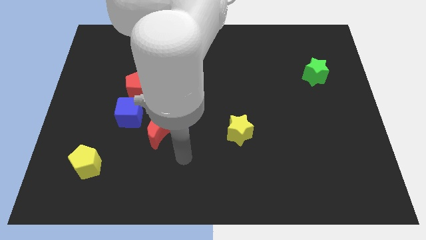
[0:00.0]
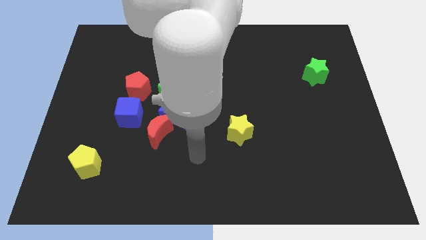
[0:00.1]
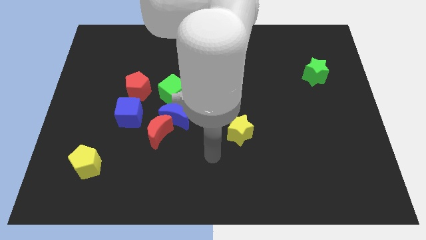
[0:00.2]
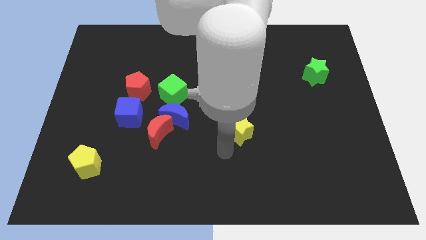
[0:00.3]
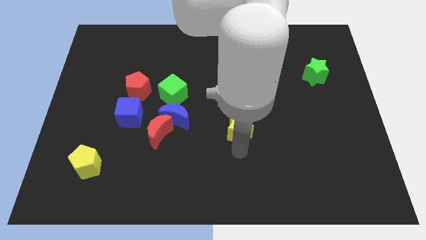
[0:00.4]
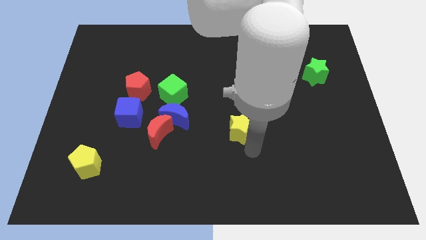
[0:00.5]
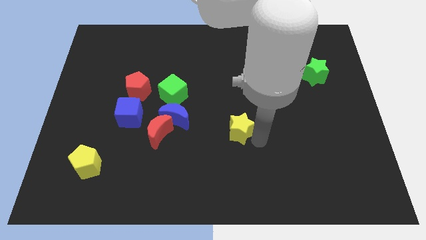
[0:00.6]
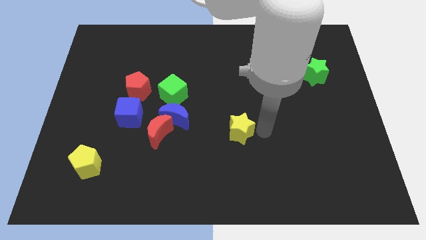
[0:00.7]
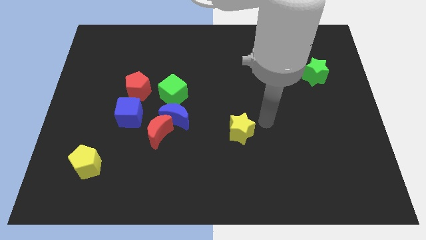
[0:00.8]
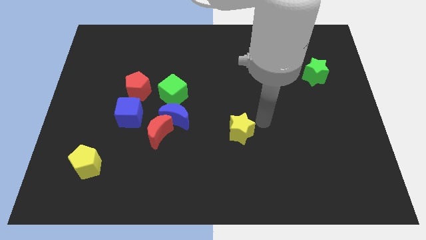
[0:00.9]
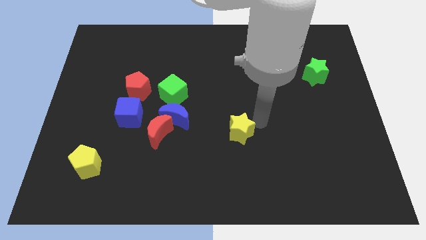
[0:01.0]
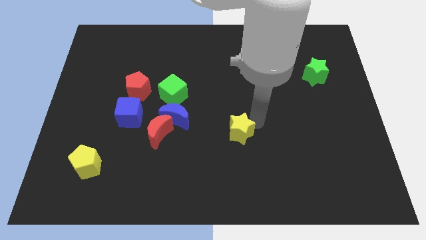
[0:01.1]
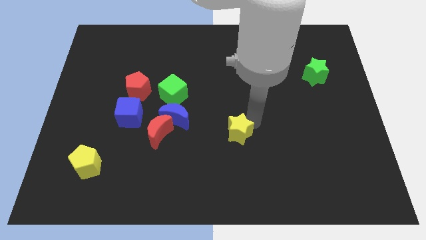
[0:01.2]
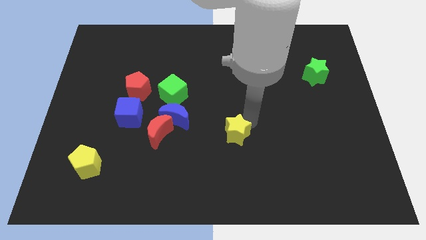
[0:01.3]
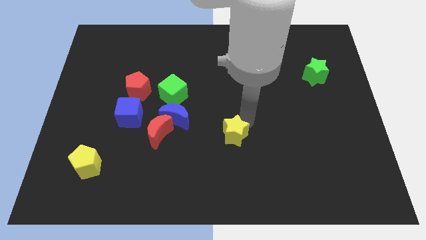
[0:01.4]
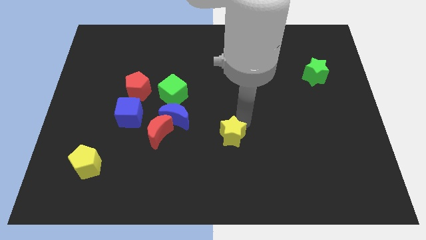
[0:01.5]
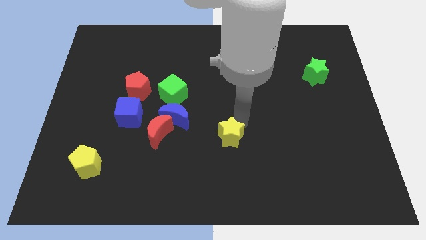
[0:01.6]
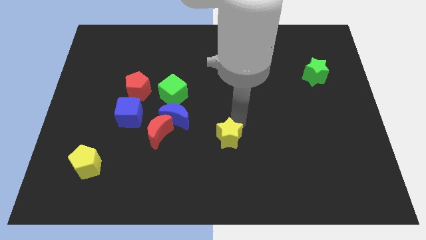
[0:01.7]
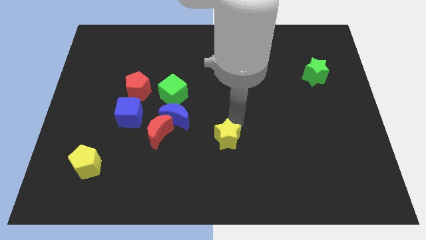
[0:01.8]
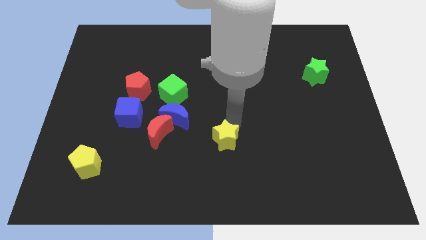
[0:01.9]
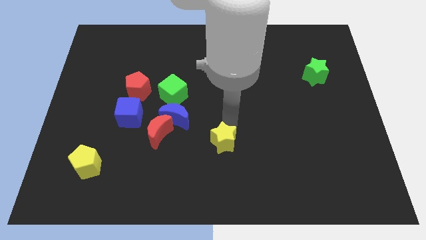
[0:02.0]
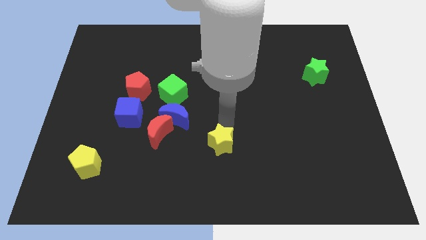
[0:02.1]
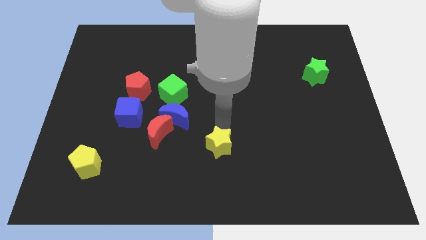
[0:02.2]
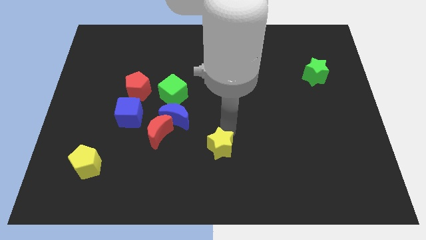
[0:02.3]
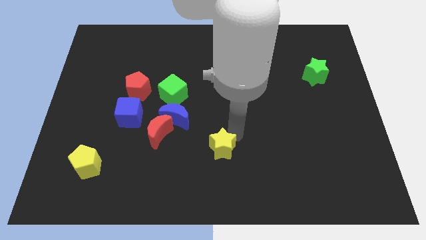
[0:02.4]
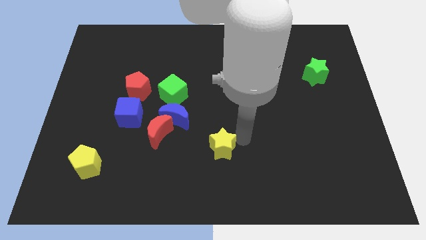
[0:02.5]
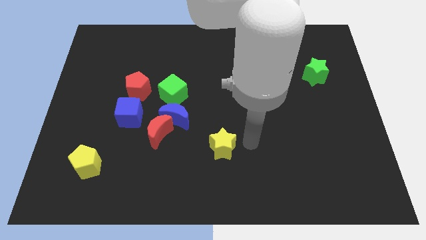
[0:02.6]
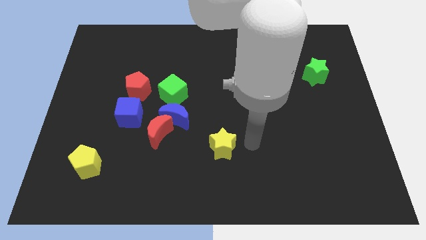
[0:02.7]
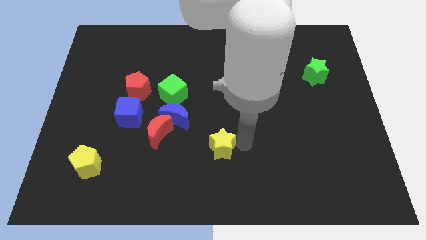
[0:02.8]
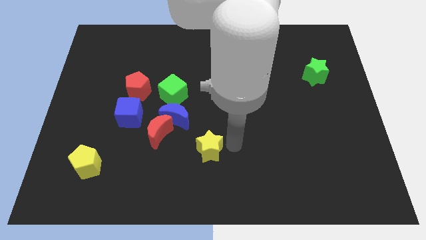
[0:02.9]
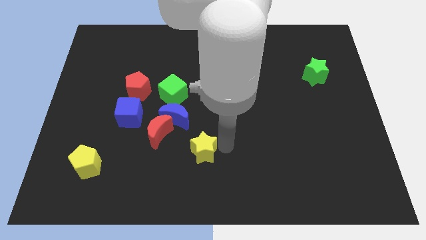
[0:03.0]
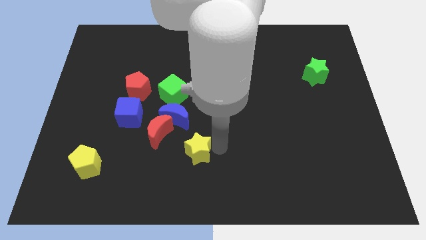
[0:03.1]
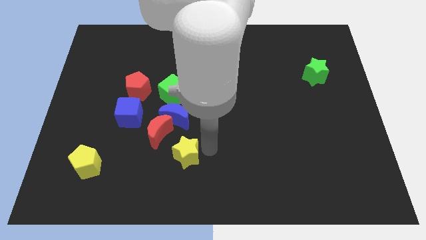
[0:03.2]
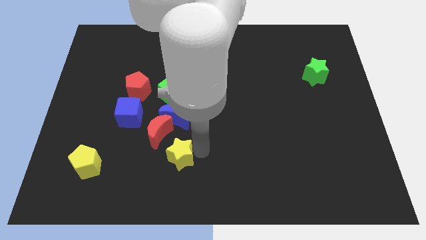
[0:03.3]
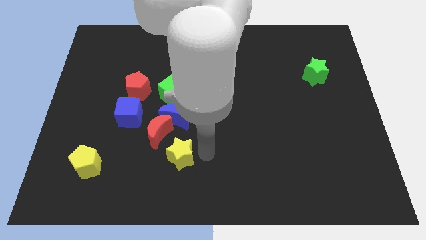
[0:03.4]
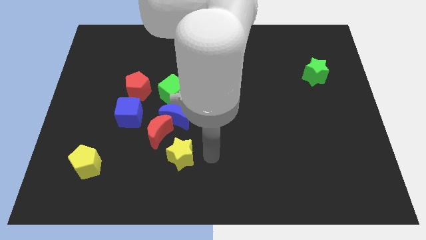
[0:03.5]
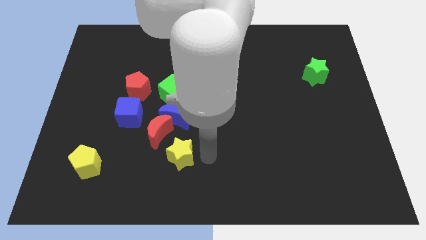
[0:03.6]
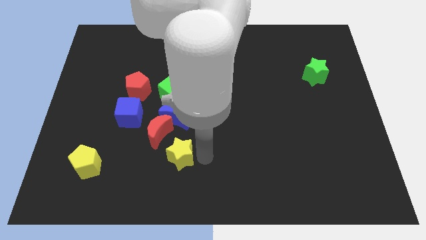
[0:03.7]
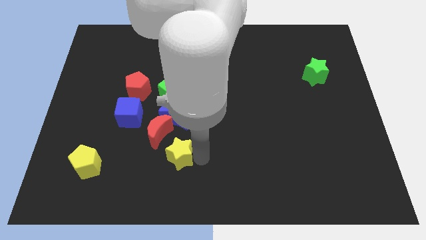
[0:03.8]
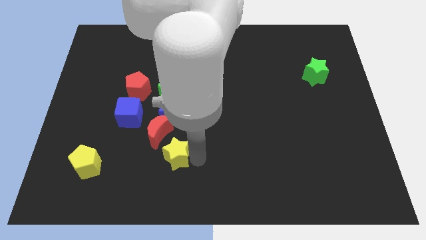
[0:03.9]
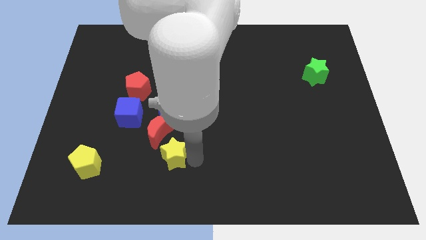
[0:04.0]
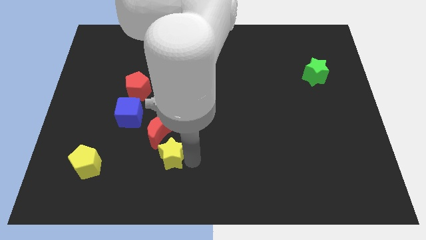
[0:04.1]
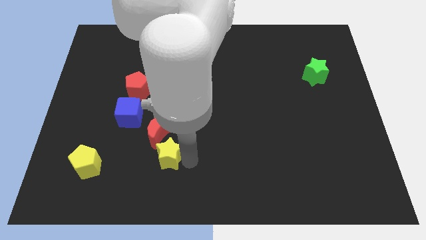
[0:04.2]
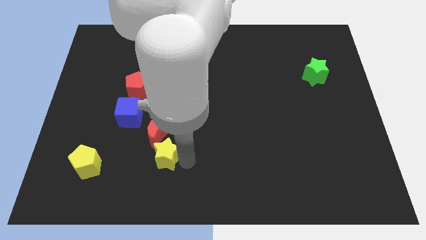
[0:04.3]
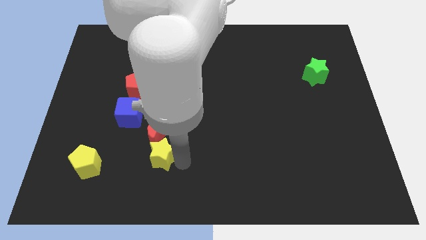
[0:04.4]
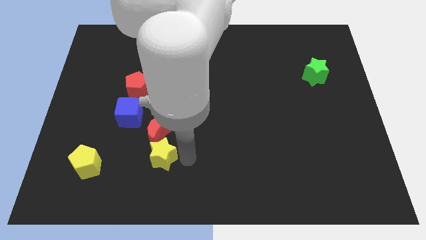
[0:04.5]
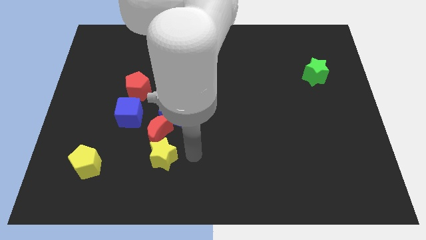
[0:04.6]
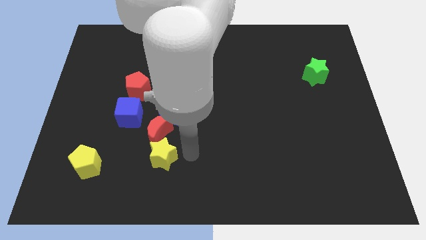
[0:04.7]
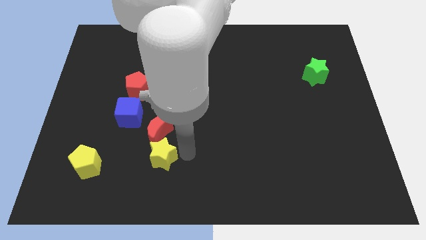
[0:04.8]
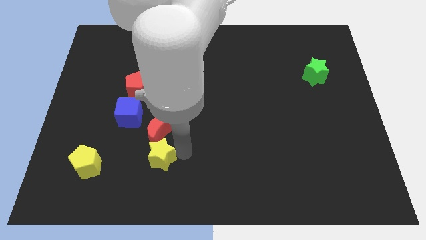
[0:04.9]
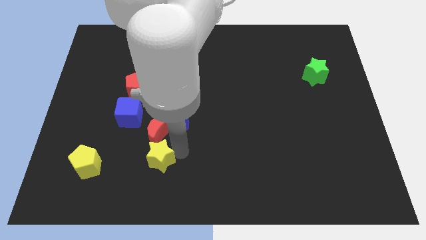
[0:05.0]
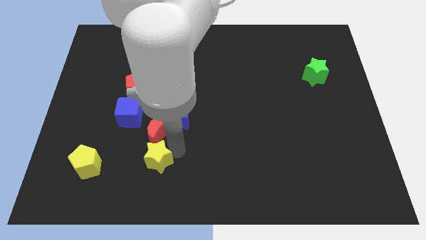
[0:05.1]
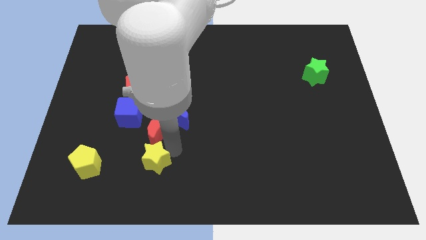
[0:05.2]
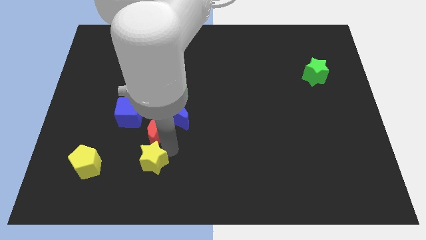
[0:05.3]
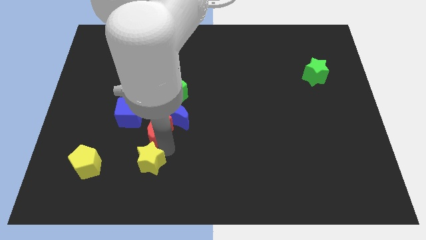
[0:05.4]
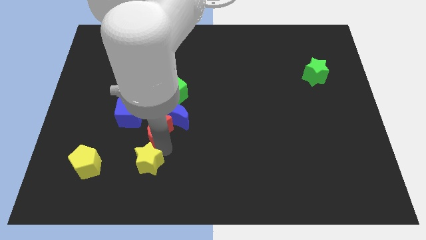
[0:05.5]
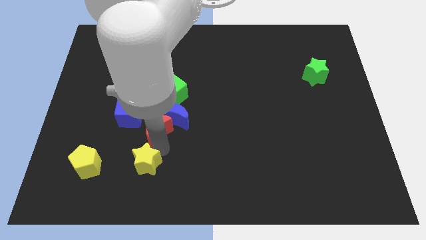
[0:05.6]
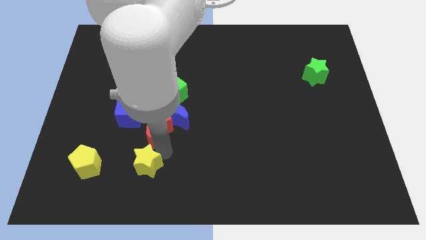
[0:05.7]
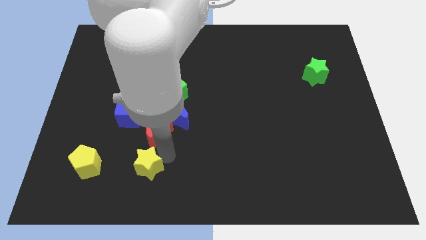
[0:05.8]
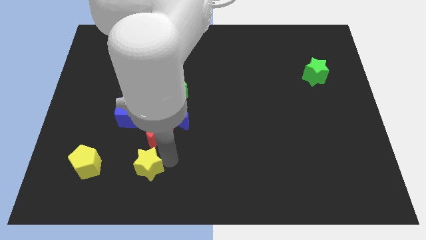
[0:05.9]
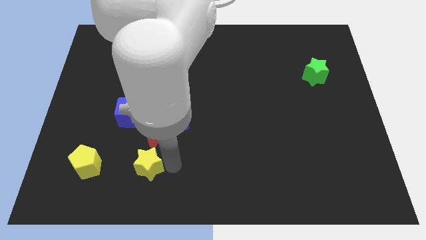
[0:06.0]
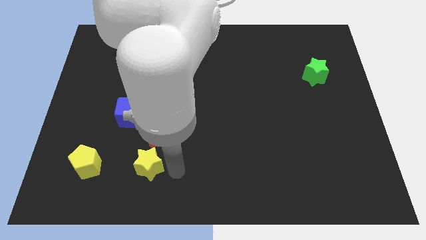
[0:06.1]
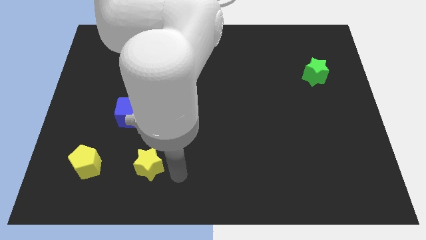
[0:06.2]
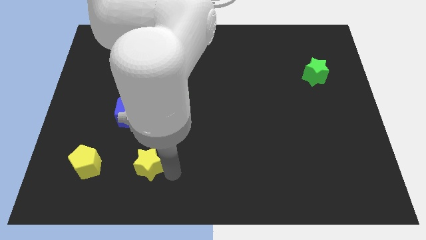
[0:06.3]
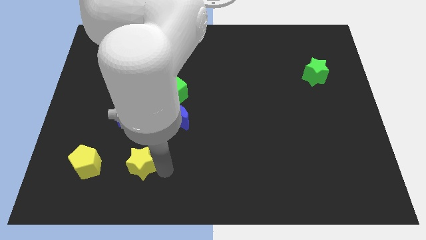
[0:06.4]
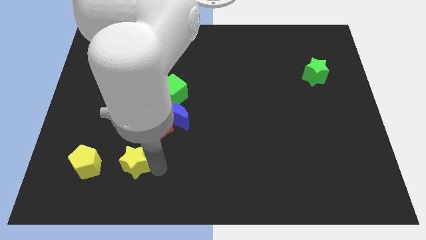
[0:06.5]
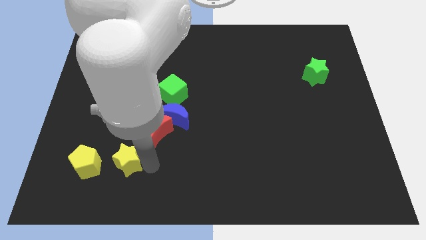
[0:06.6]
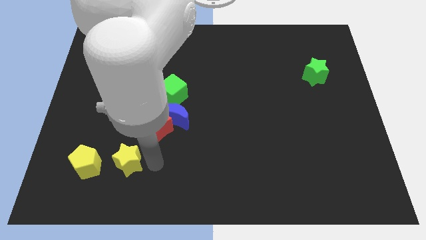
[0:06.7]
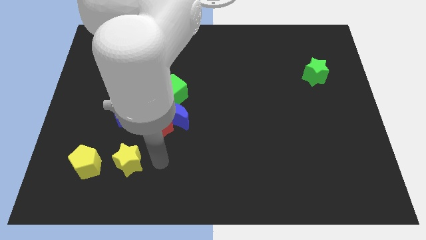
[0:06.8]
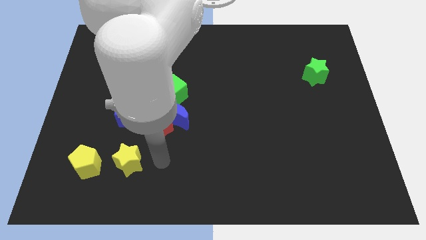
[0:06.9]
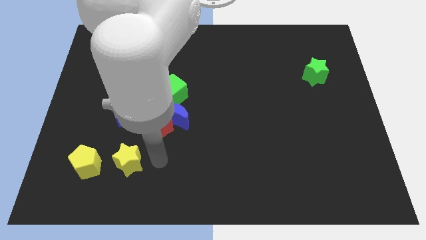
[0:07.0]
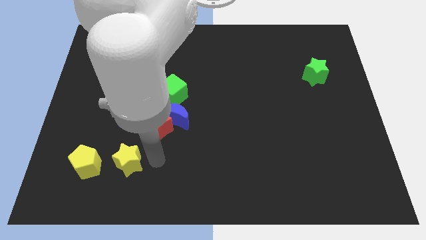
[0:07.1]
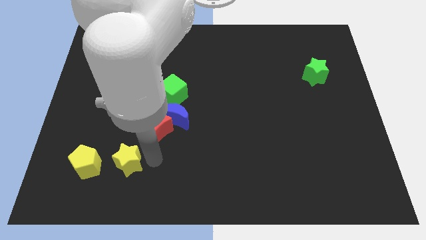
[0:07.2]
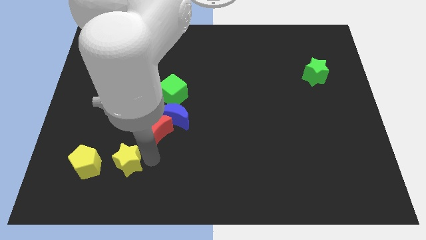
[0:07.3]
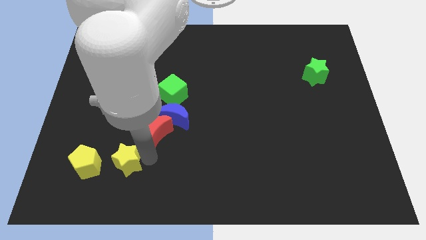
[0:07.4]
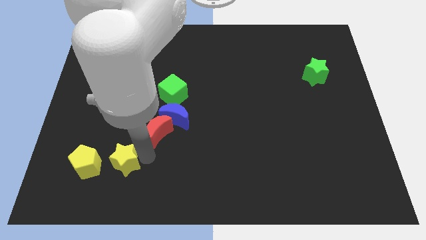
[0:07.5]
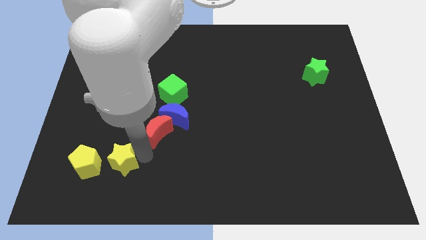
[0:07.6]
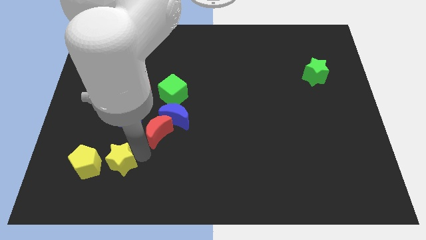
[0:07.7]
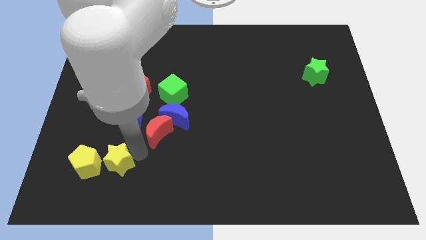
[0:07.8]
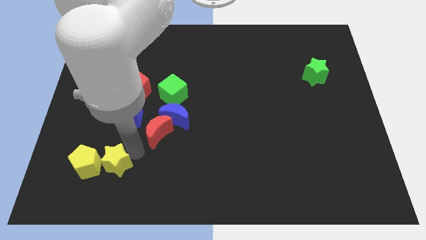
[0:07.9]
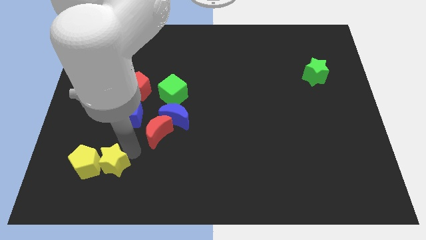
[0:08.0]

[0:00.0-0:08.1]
put the yellow star next to the yellow pentagon
